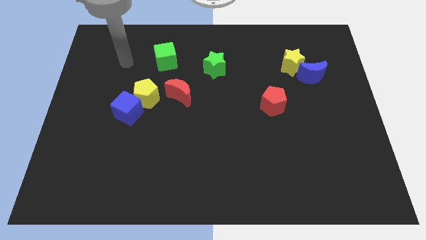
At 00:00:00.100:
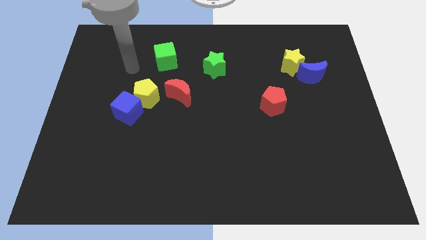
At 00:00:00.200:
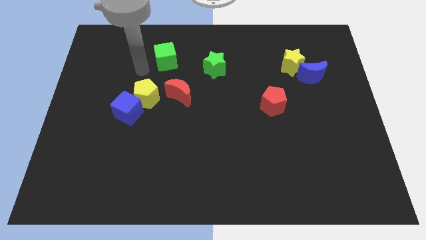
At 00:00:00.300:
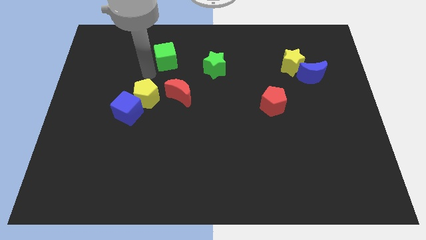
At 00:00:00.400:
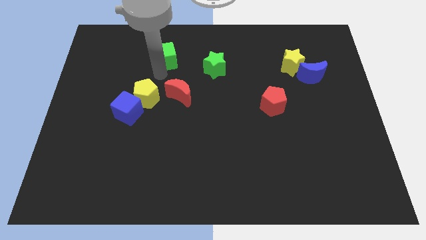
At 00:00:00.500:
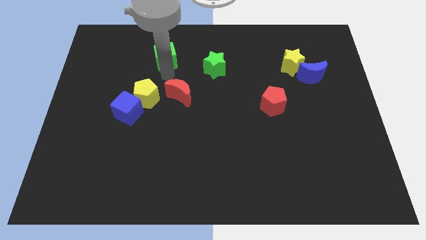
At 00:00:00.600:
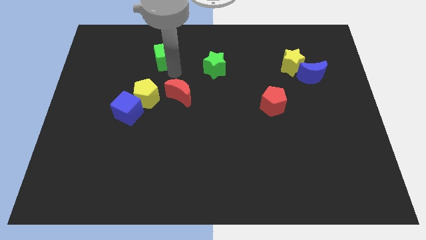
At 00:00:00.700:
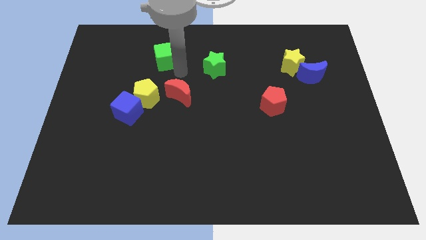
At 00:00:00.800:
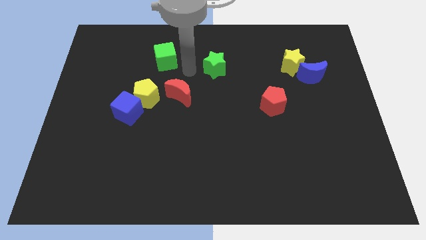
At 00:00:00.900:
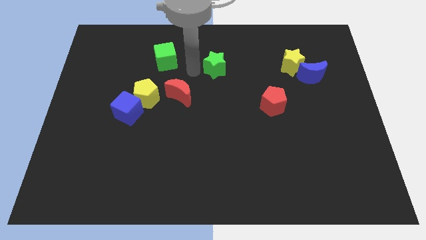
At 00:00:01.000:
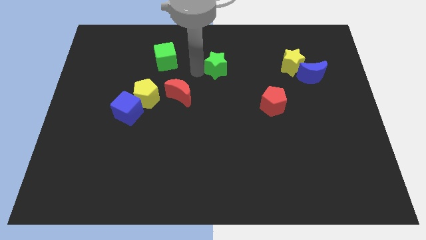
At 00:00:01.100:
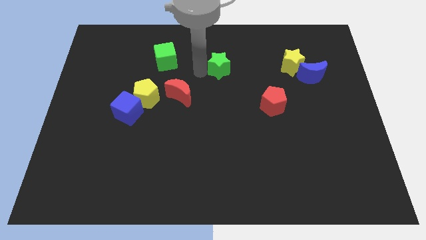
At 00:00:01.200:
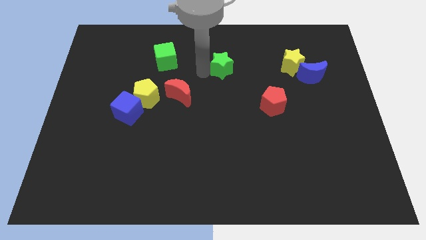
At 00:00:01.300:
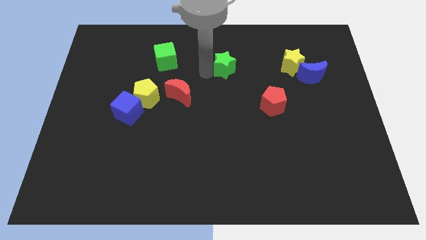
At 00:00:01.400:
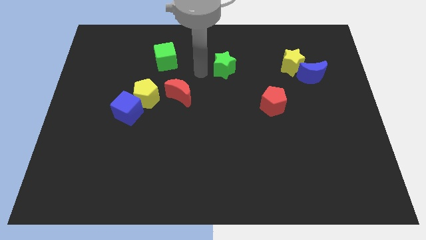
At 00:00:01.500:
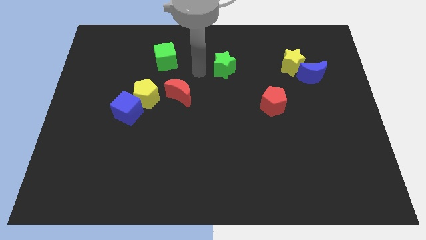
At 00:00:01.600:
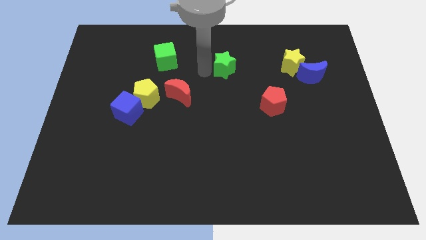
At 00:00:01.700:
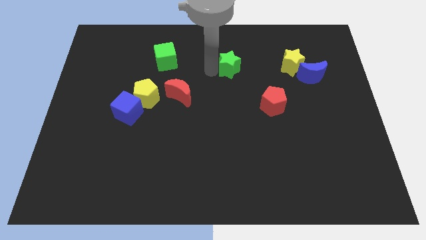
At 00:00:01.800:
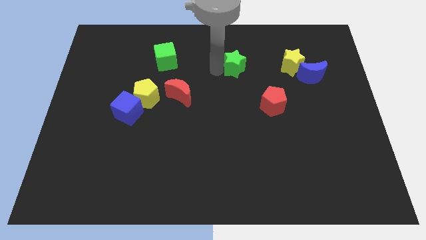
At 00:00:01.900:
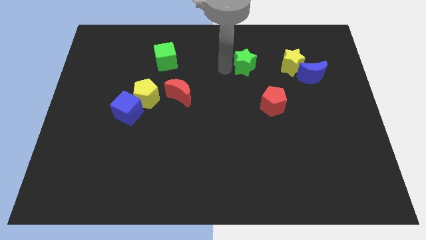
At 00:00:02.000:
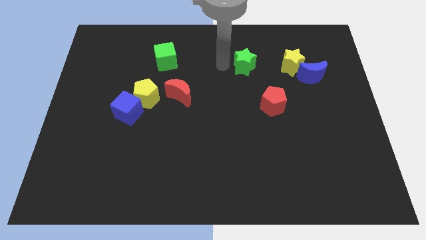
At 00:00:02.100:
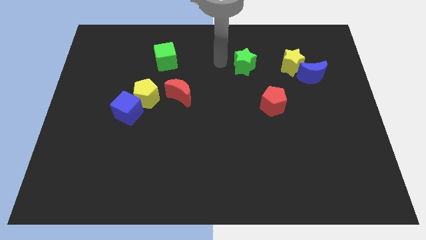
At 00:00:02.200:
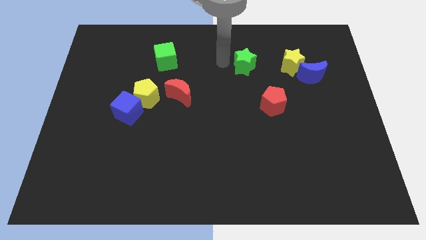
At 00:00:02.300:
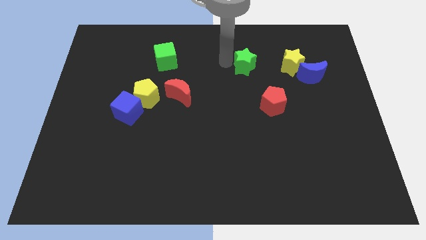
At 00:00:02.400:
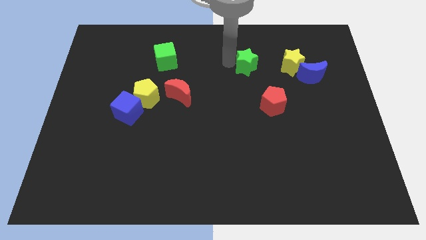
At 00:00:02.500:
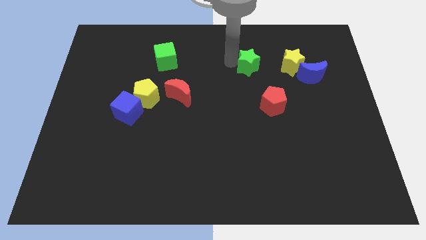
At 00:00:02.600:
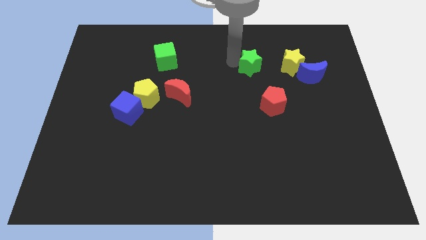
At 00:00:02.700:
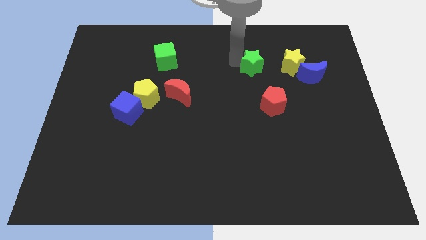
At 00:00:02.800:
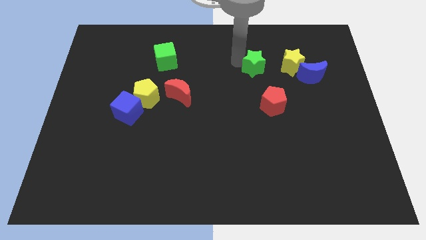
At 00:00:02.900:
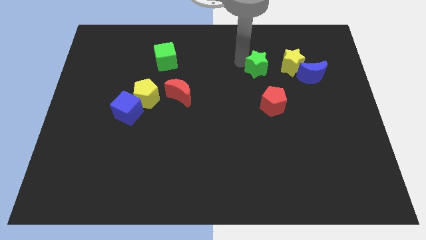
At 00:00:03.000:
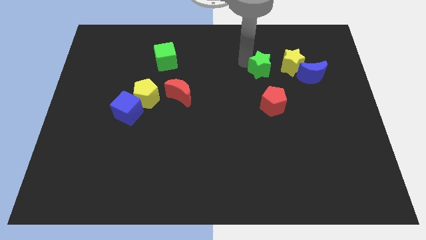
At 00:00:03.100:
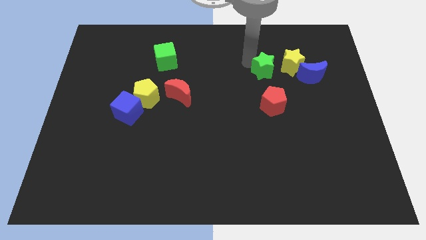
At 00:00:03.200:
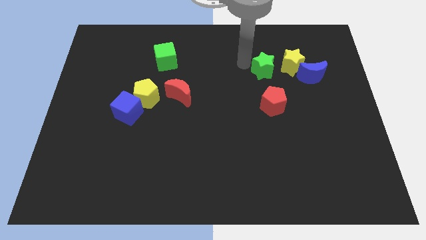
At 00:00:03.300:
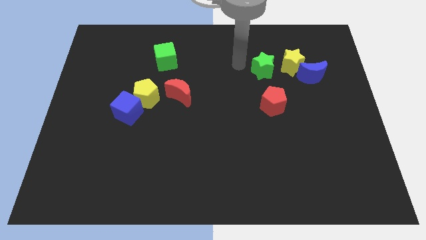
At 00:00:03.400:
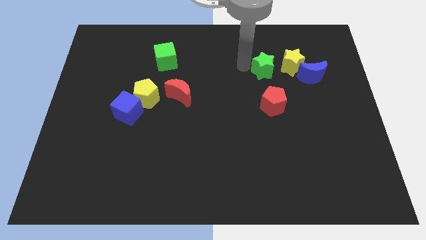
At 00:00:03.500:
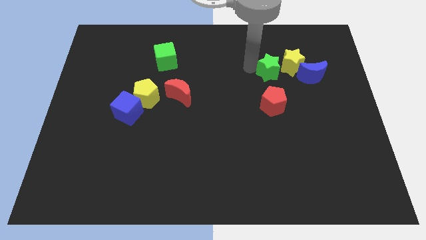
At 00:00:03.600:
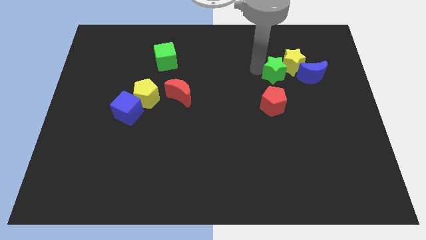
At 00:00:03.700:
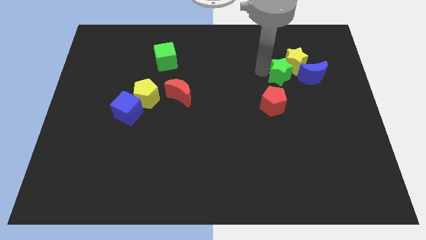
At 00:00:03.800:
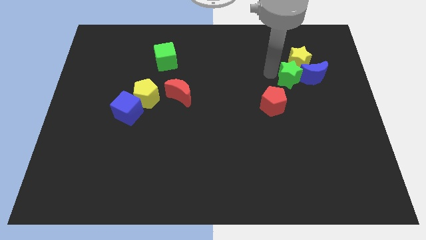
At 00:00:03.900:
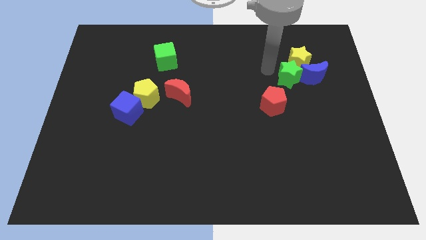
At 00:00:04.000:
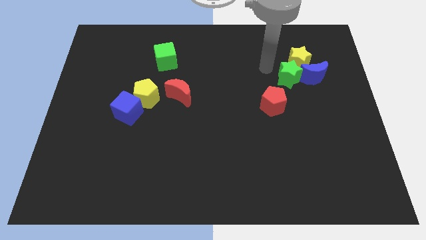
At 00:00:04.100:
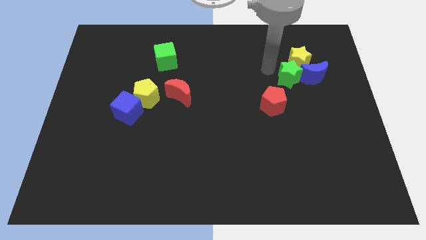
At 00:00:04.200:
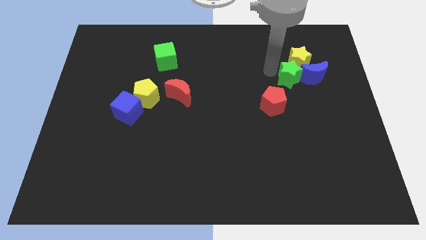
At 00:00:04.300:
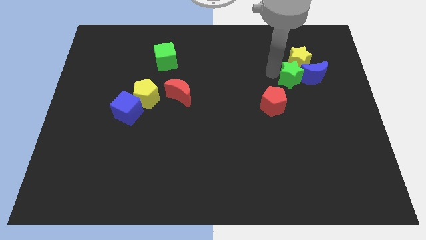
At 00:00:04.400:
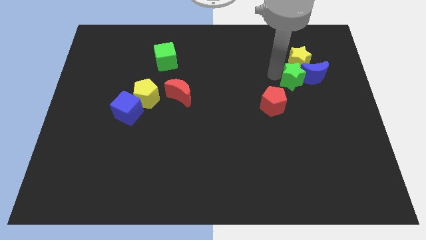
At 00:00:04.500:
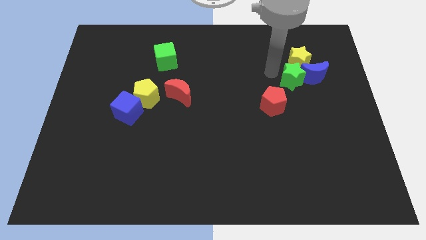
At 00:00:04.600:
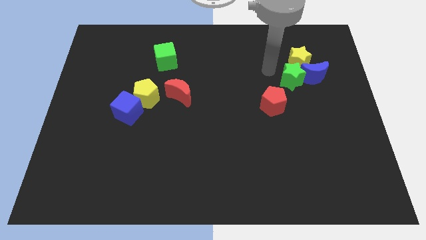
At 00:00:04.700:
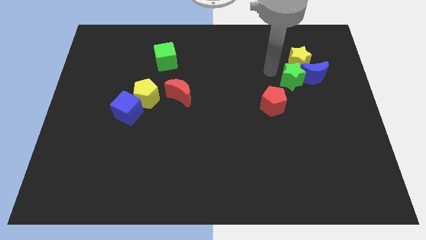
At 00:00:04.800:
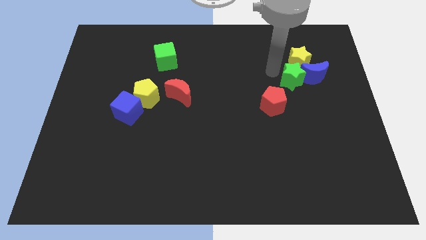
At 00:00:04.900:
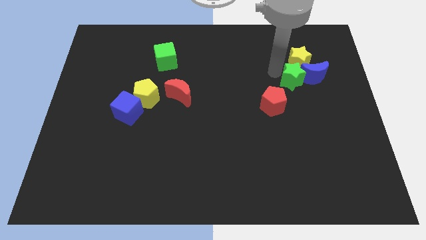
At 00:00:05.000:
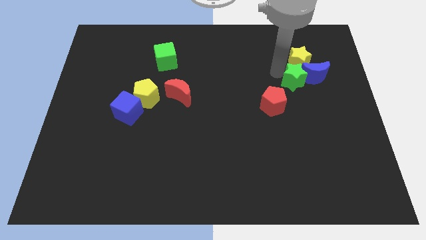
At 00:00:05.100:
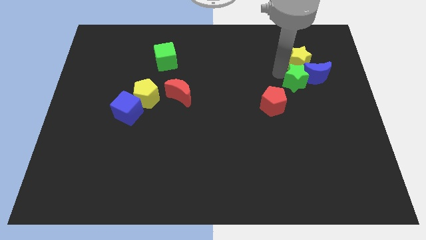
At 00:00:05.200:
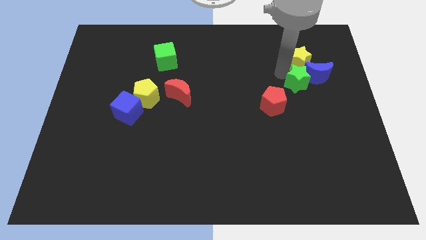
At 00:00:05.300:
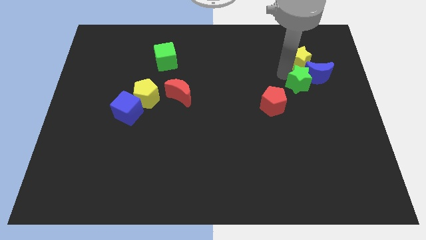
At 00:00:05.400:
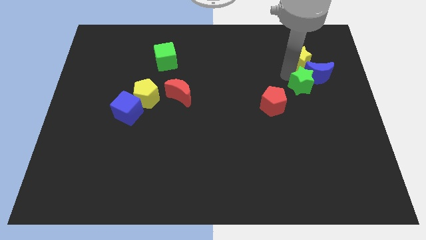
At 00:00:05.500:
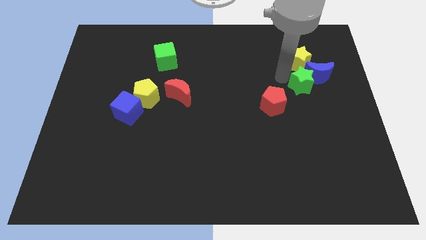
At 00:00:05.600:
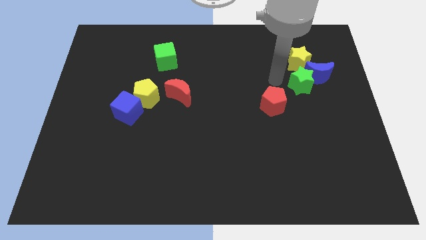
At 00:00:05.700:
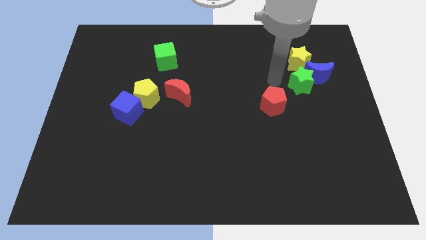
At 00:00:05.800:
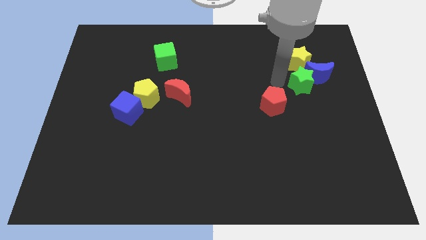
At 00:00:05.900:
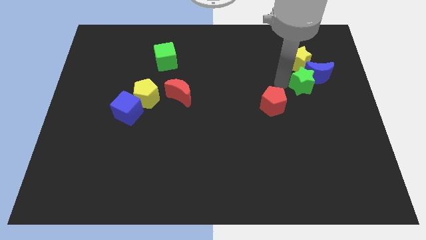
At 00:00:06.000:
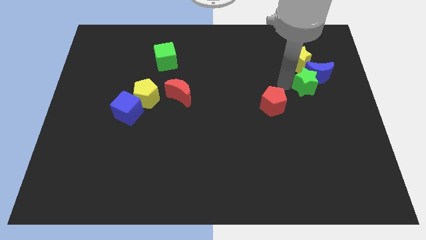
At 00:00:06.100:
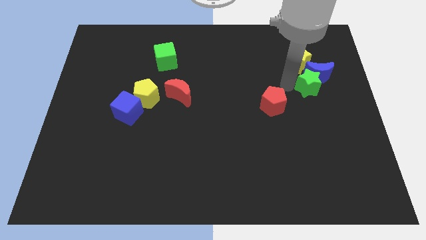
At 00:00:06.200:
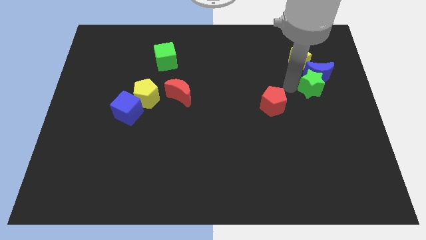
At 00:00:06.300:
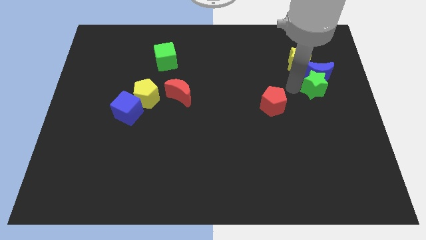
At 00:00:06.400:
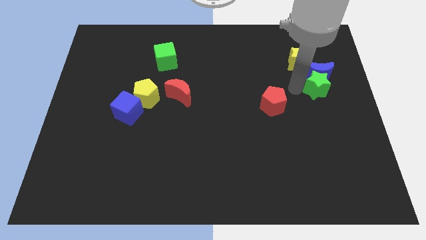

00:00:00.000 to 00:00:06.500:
put the green star to the right side of the board

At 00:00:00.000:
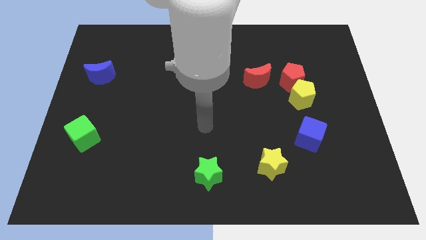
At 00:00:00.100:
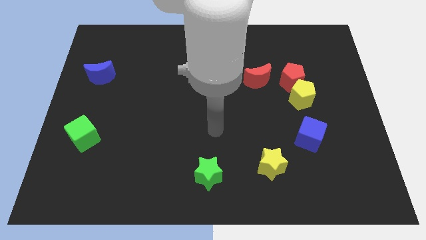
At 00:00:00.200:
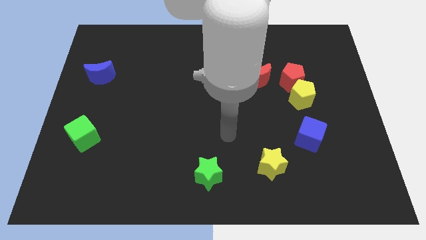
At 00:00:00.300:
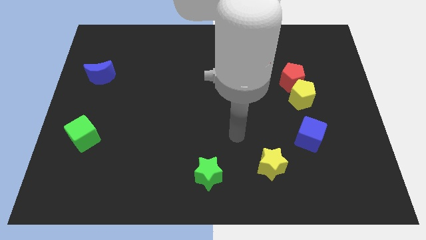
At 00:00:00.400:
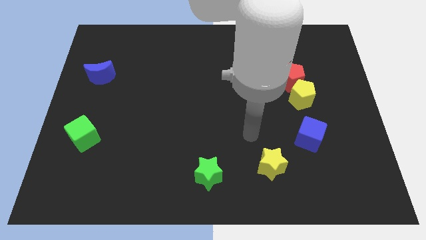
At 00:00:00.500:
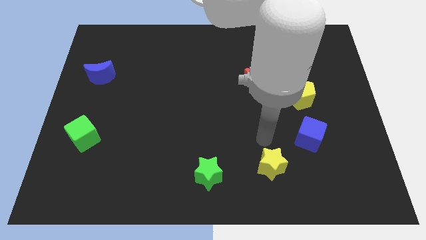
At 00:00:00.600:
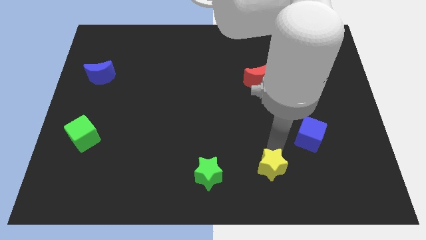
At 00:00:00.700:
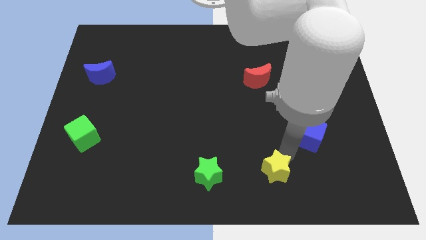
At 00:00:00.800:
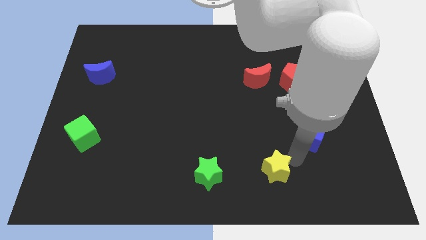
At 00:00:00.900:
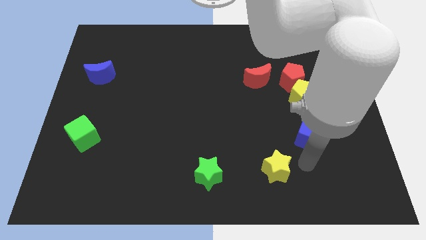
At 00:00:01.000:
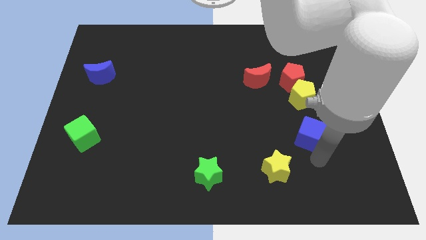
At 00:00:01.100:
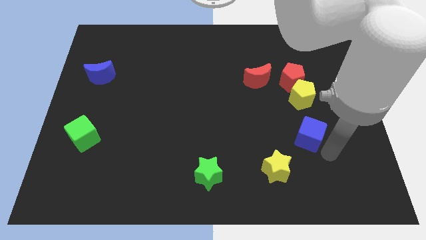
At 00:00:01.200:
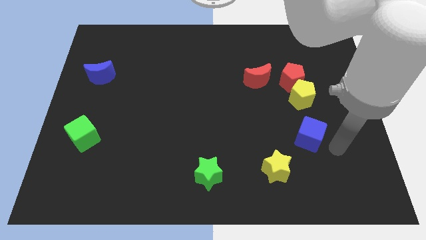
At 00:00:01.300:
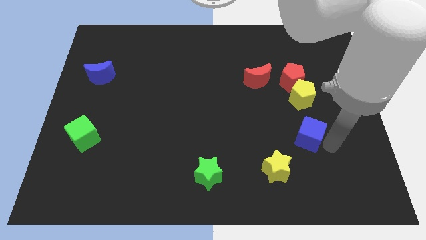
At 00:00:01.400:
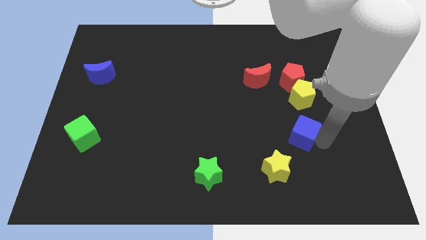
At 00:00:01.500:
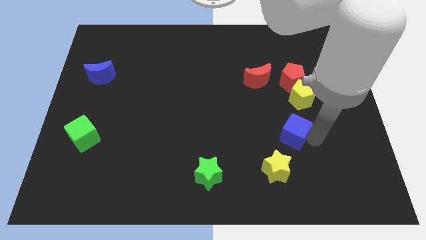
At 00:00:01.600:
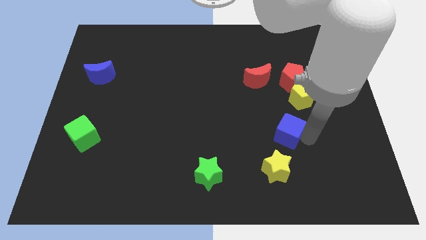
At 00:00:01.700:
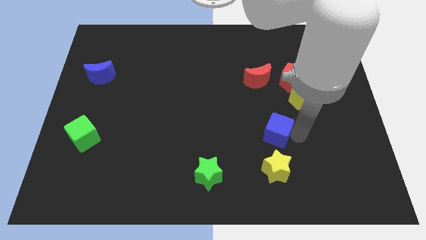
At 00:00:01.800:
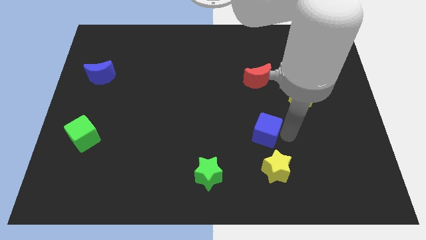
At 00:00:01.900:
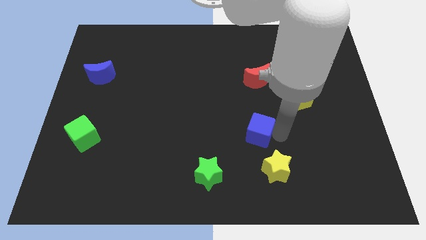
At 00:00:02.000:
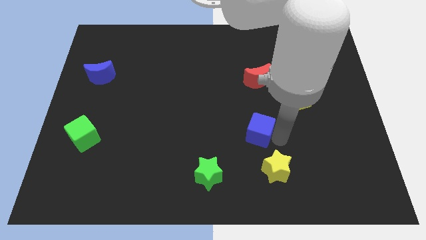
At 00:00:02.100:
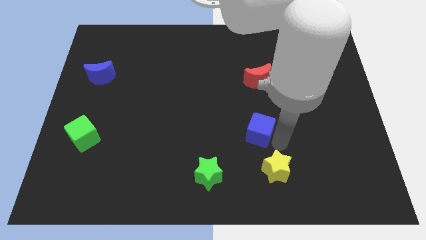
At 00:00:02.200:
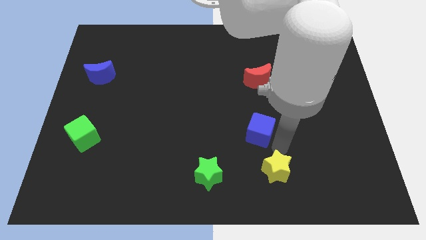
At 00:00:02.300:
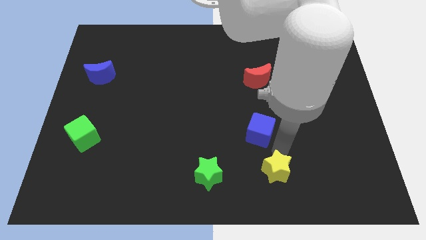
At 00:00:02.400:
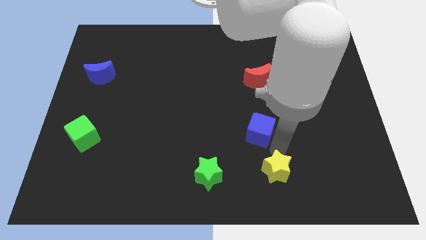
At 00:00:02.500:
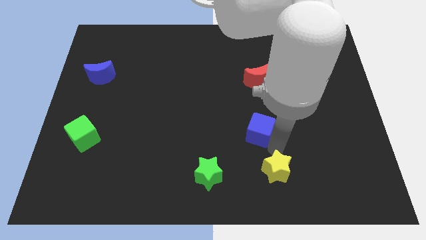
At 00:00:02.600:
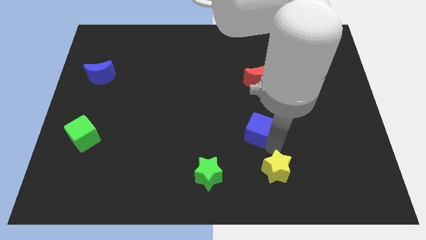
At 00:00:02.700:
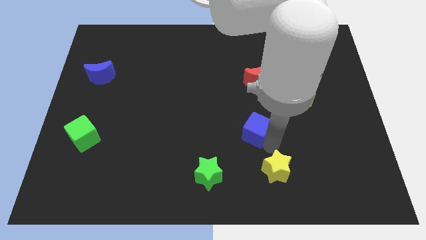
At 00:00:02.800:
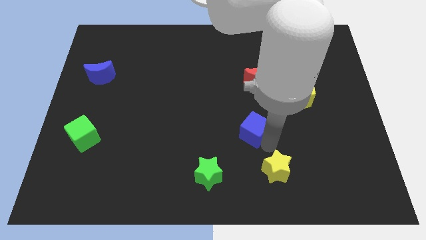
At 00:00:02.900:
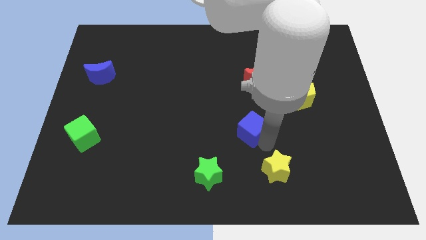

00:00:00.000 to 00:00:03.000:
put the blue cube to the middle
